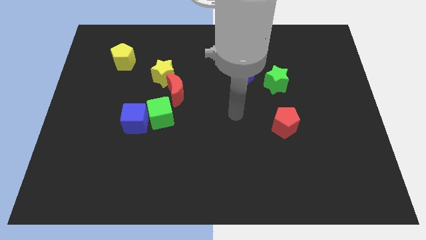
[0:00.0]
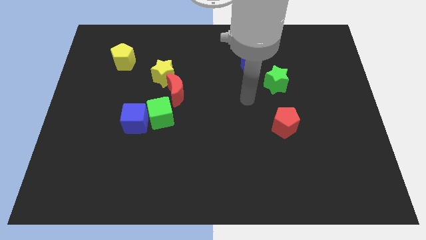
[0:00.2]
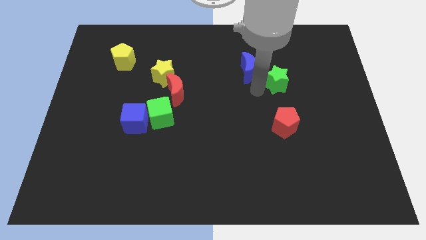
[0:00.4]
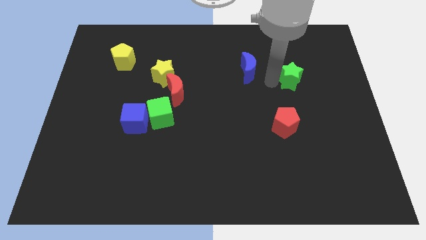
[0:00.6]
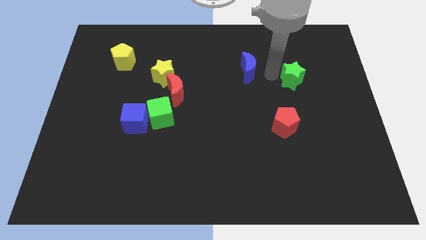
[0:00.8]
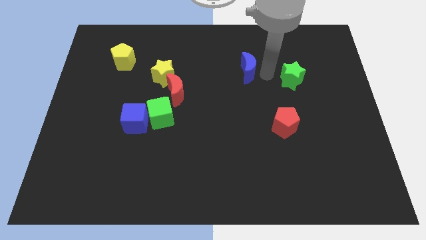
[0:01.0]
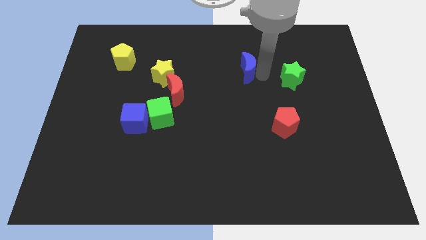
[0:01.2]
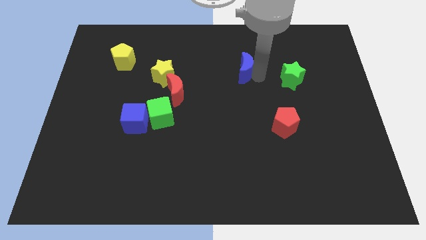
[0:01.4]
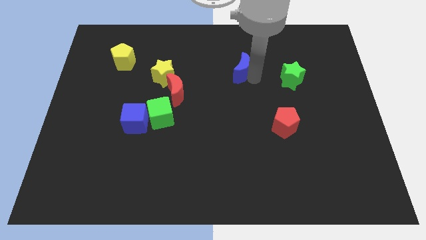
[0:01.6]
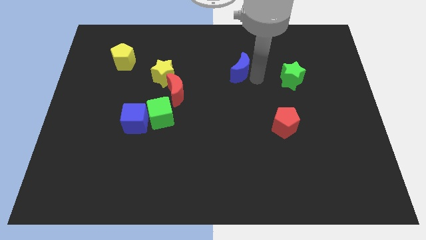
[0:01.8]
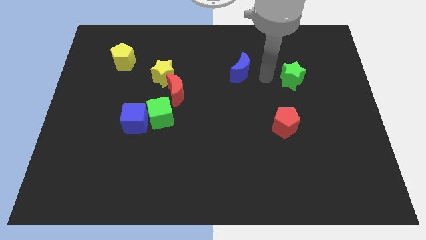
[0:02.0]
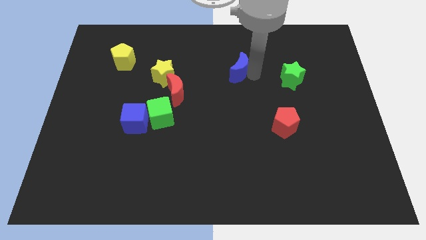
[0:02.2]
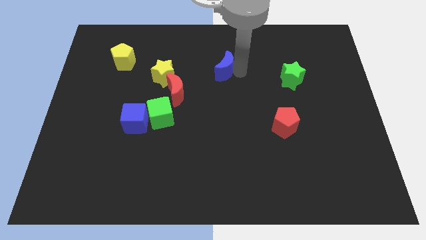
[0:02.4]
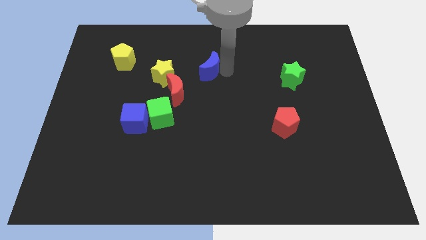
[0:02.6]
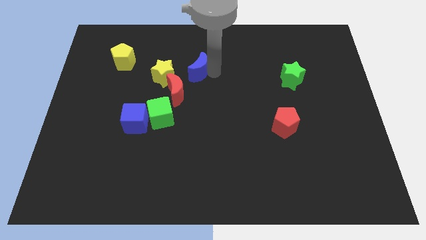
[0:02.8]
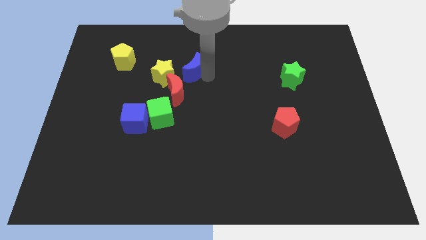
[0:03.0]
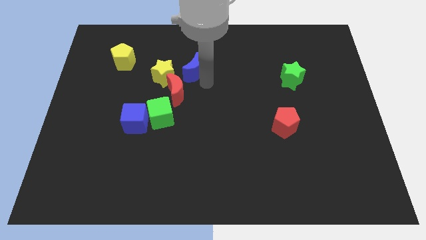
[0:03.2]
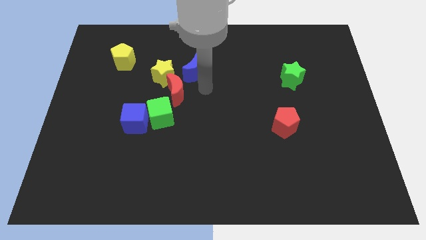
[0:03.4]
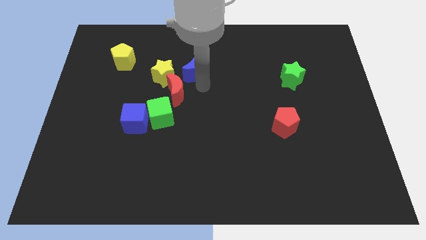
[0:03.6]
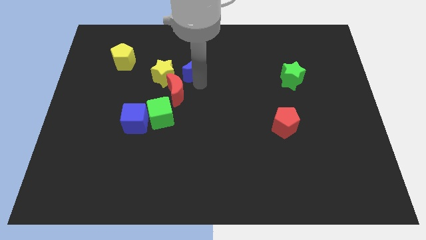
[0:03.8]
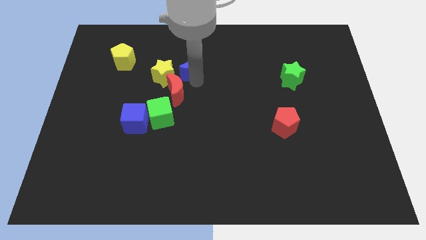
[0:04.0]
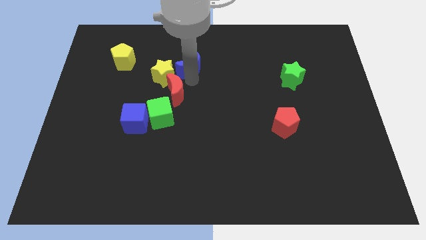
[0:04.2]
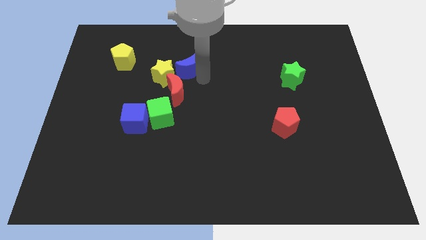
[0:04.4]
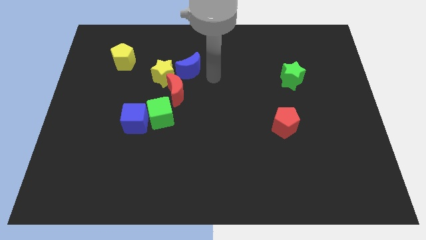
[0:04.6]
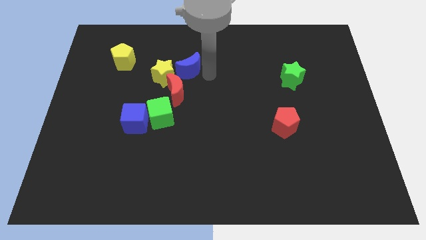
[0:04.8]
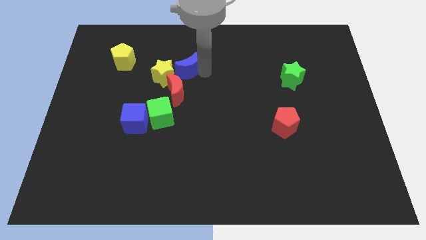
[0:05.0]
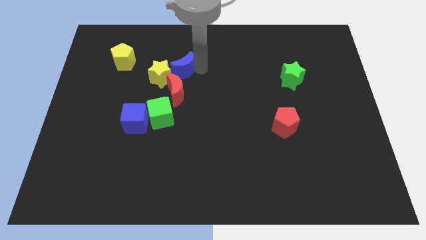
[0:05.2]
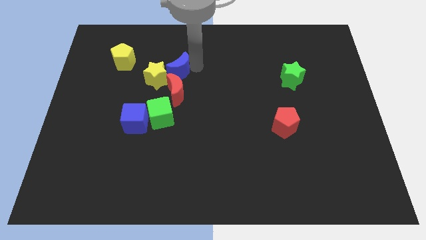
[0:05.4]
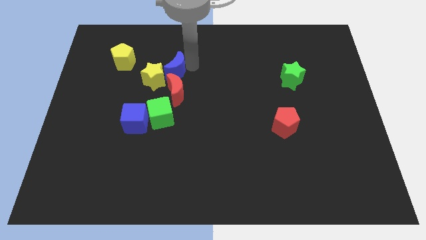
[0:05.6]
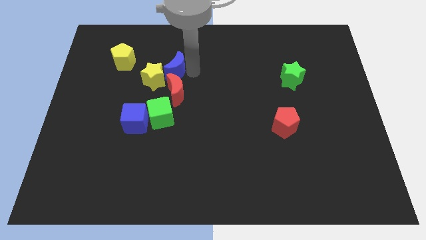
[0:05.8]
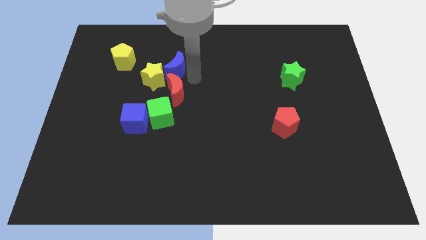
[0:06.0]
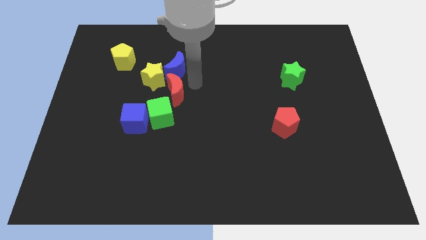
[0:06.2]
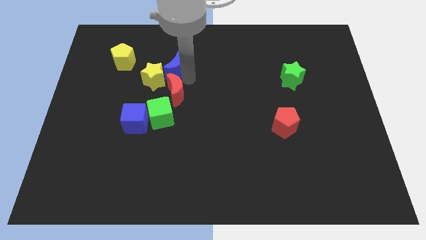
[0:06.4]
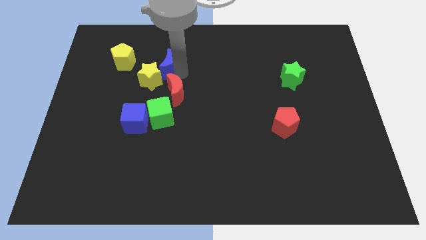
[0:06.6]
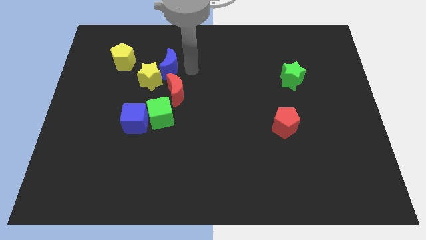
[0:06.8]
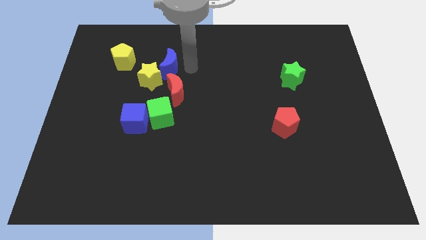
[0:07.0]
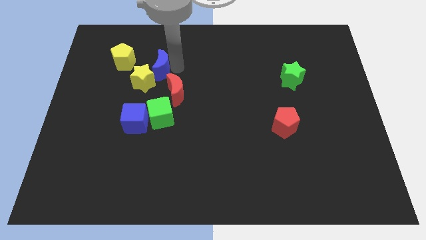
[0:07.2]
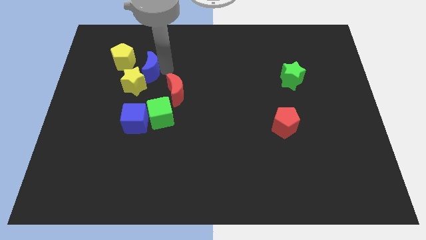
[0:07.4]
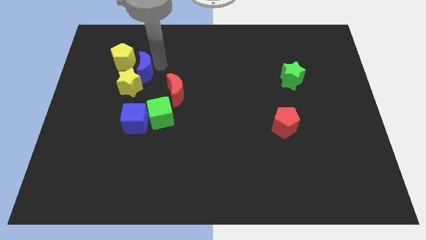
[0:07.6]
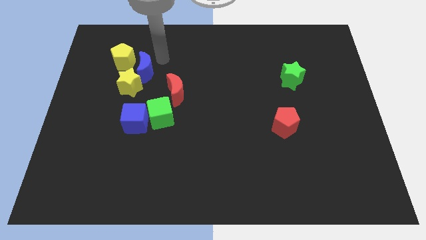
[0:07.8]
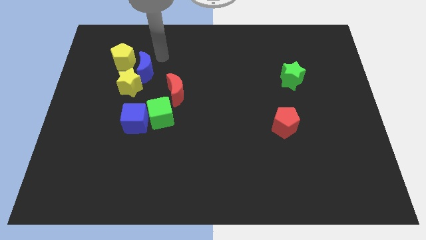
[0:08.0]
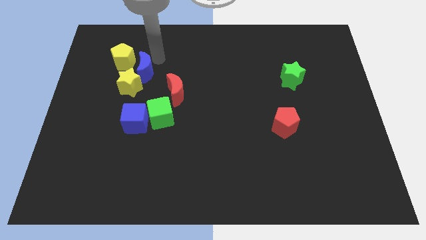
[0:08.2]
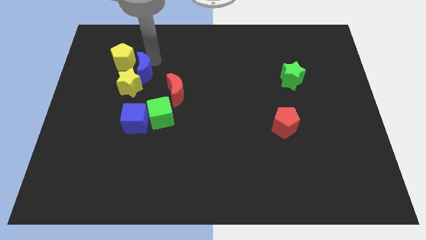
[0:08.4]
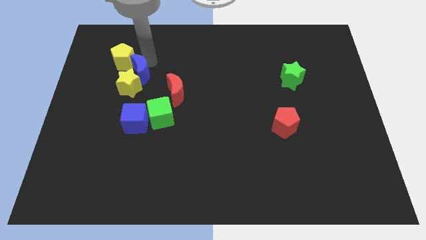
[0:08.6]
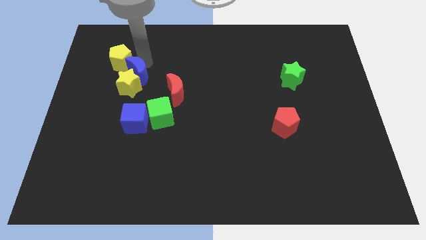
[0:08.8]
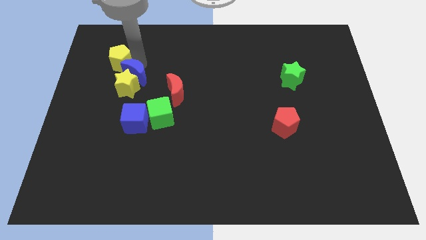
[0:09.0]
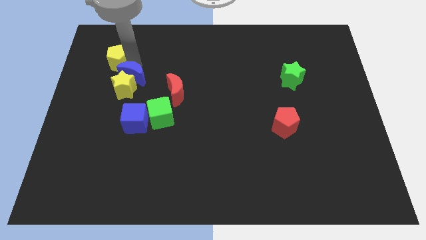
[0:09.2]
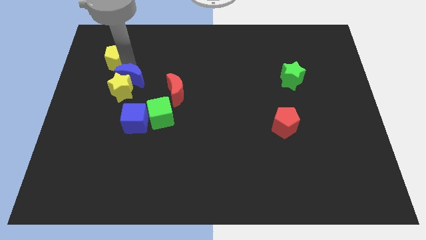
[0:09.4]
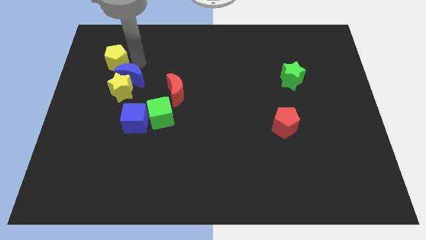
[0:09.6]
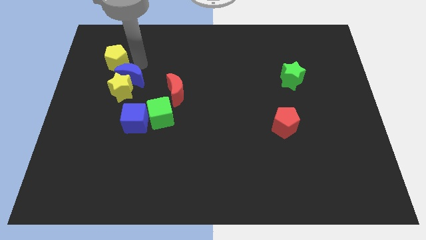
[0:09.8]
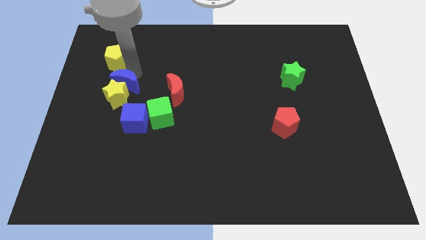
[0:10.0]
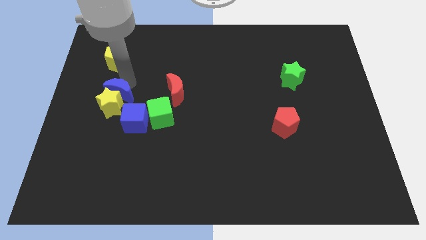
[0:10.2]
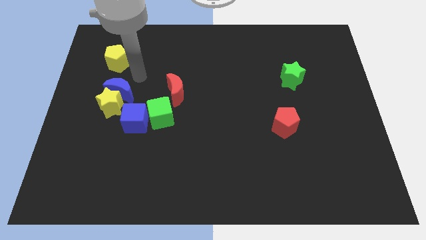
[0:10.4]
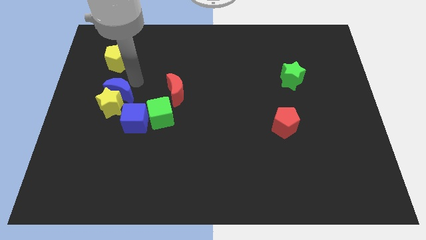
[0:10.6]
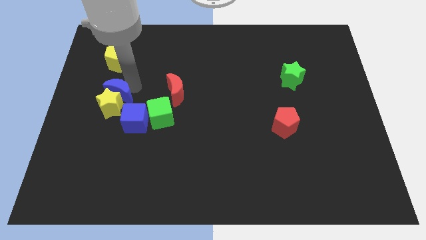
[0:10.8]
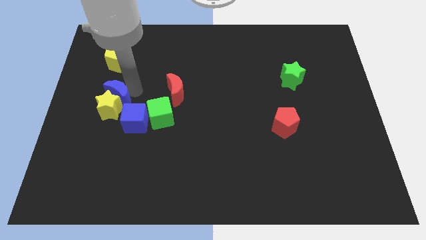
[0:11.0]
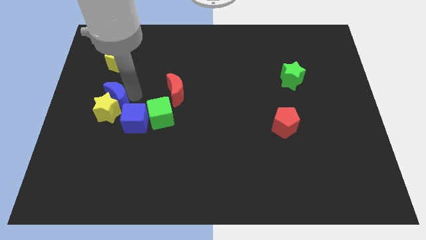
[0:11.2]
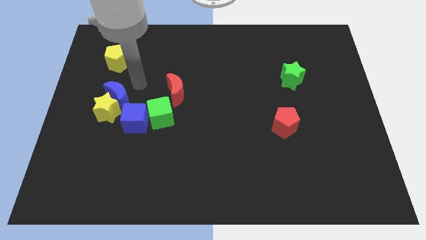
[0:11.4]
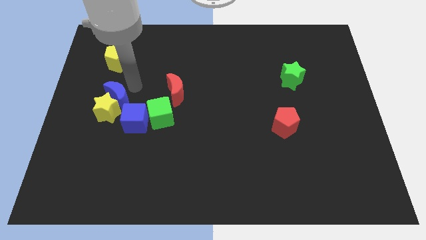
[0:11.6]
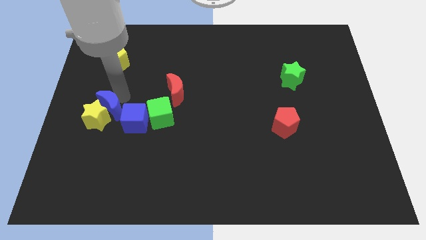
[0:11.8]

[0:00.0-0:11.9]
put the blue moon to the left of the blue cube

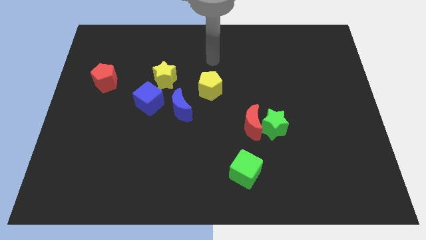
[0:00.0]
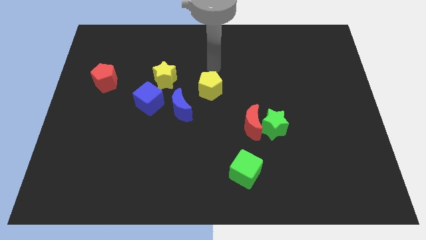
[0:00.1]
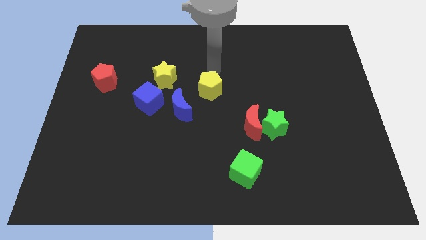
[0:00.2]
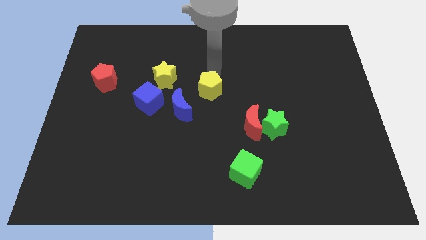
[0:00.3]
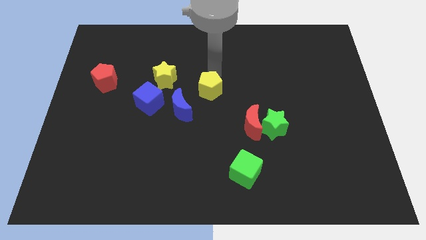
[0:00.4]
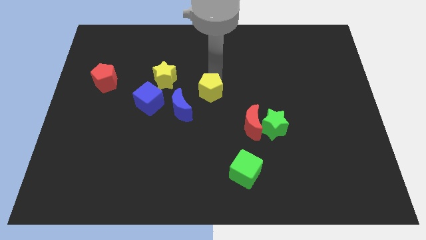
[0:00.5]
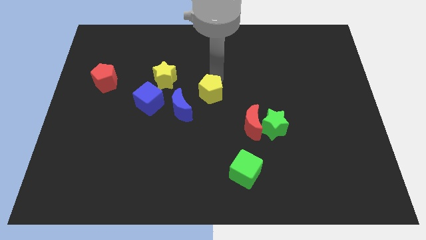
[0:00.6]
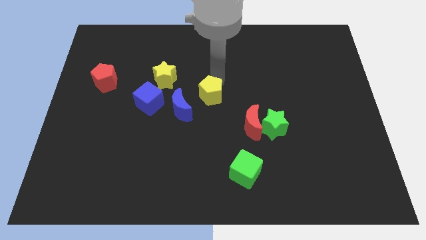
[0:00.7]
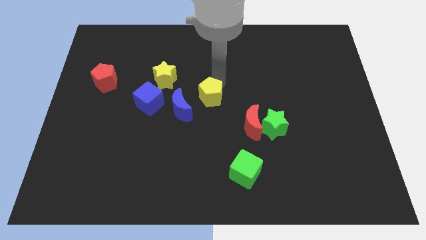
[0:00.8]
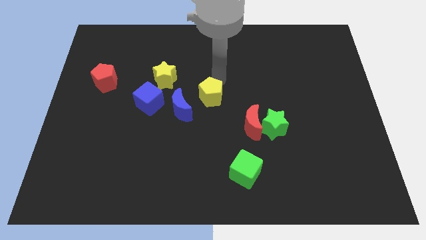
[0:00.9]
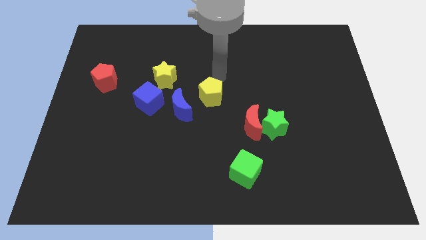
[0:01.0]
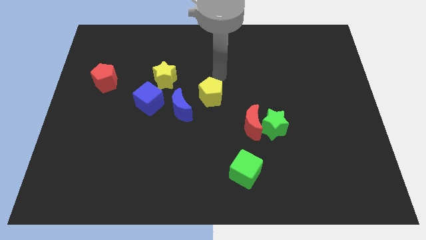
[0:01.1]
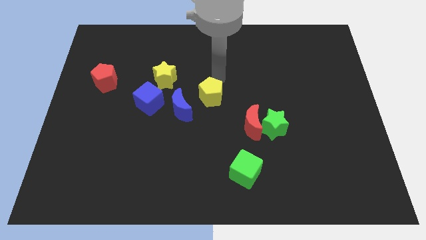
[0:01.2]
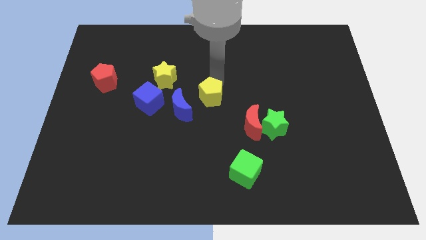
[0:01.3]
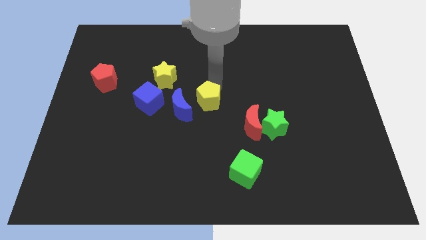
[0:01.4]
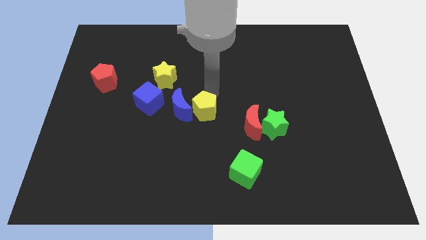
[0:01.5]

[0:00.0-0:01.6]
push the yellow pentagon diagonally down and to the right of the blue moon
